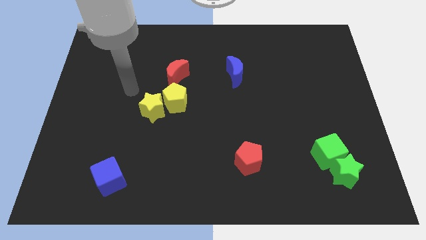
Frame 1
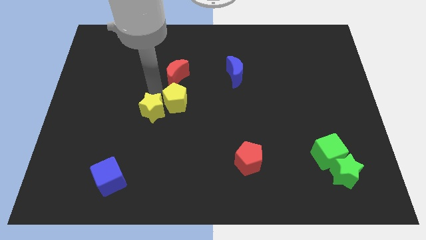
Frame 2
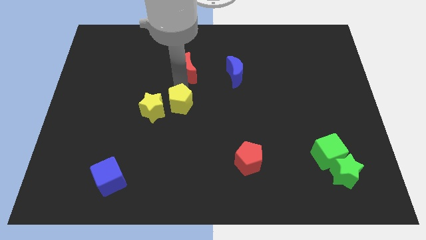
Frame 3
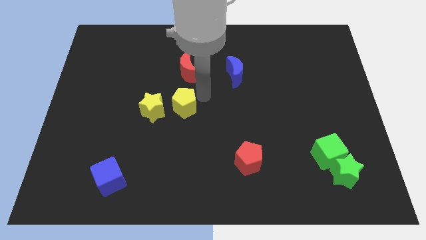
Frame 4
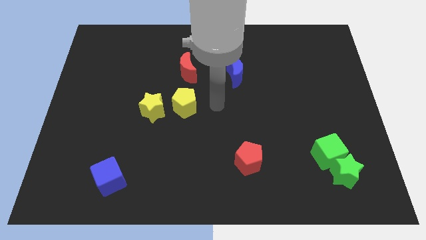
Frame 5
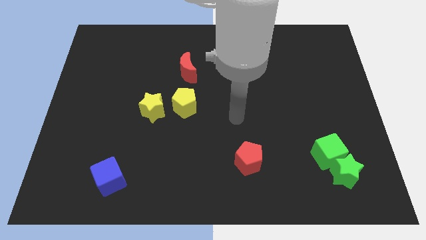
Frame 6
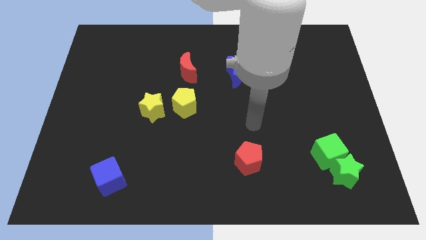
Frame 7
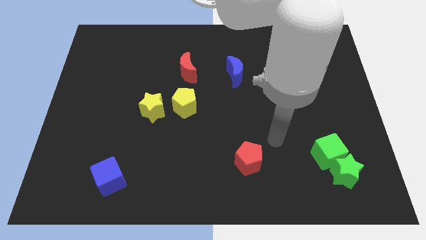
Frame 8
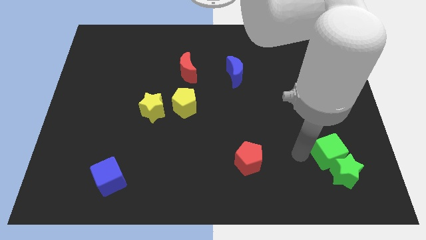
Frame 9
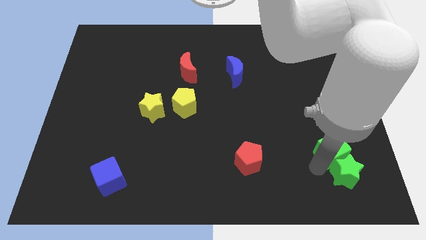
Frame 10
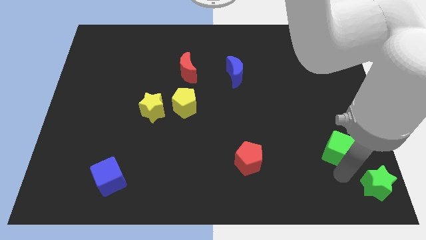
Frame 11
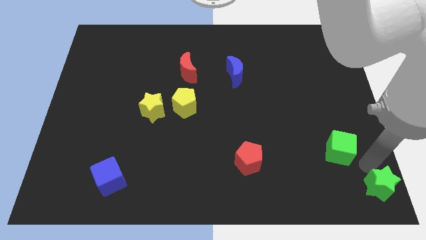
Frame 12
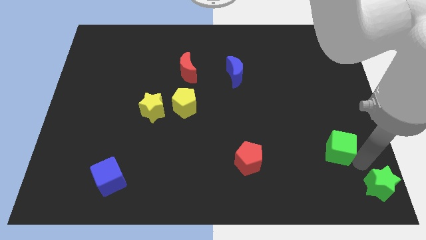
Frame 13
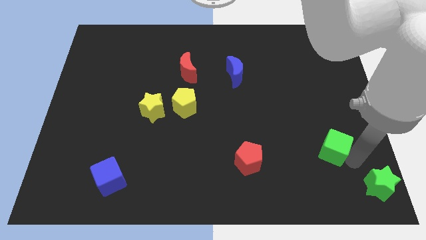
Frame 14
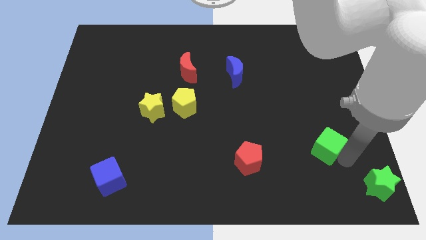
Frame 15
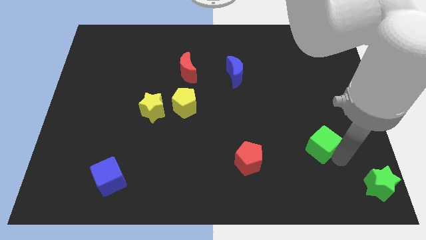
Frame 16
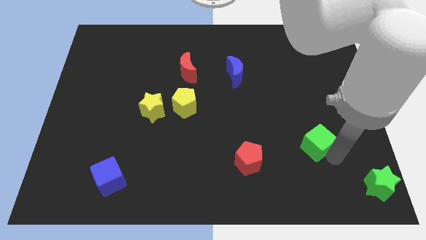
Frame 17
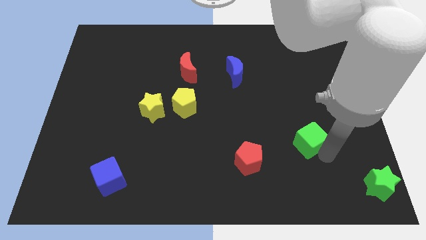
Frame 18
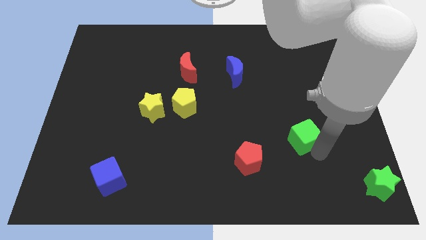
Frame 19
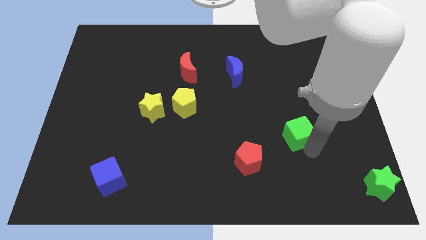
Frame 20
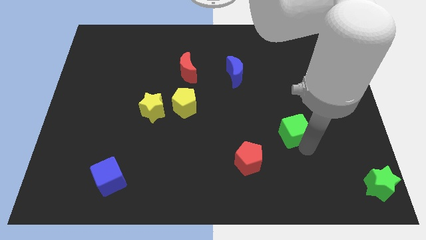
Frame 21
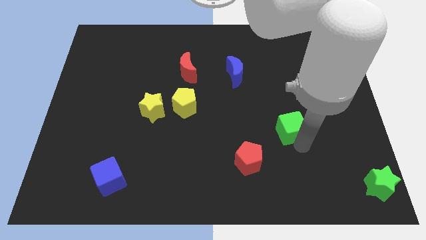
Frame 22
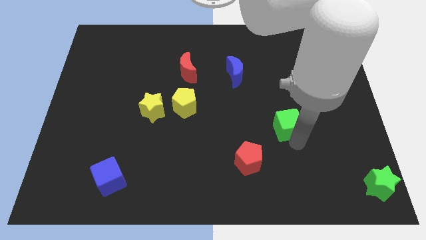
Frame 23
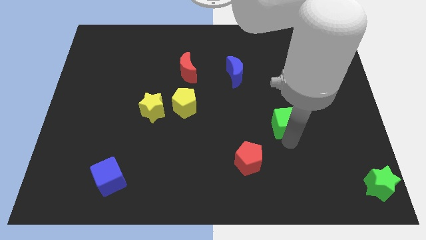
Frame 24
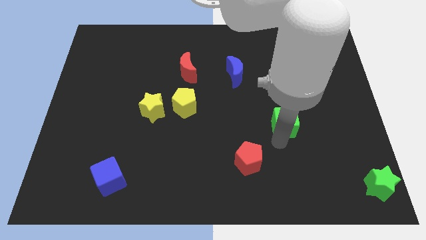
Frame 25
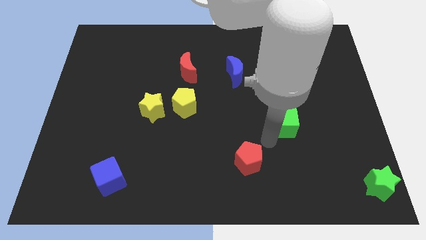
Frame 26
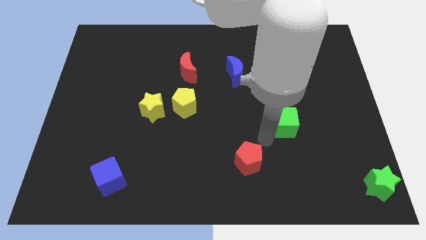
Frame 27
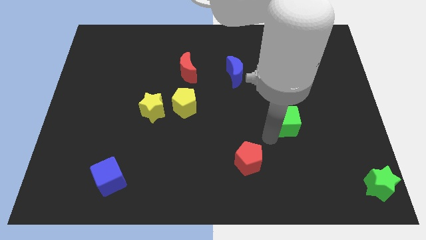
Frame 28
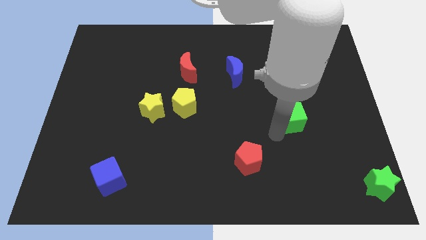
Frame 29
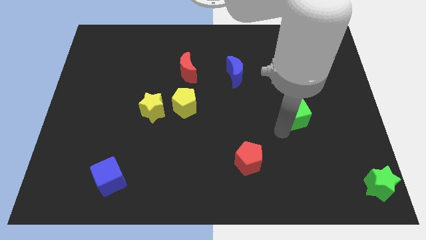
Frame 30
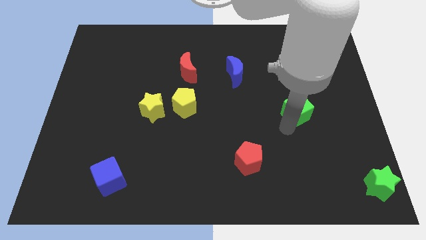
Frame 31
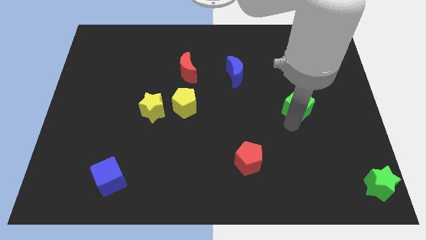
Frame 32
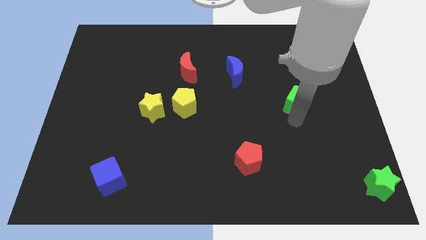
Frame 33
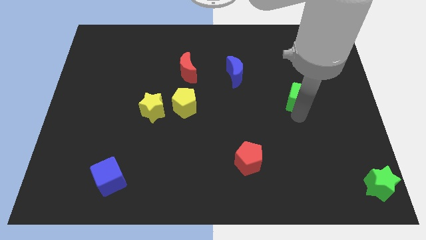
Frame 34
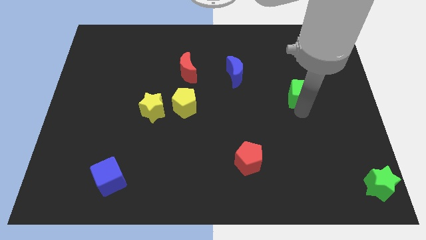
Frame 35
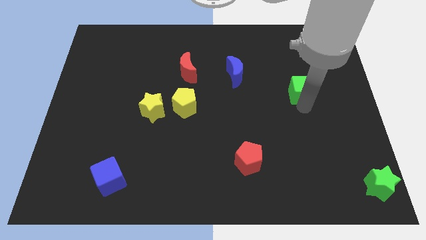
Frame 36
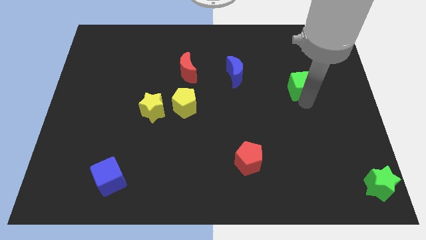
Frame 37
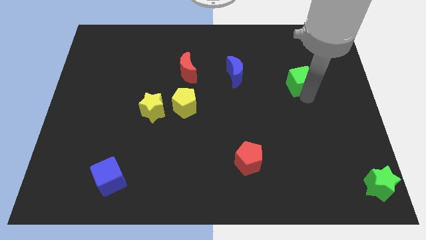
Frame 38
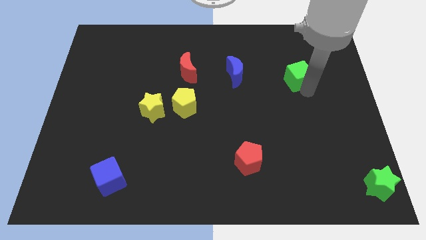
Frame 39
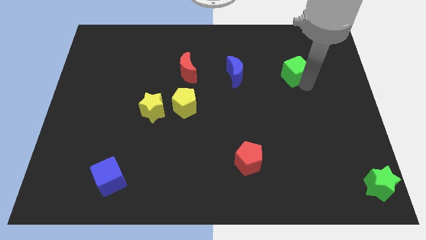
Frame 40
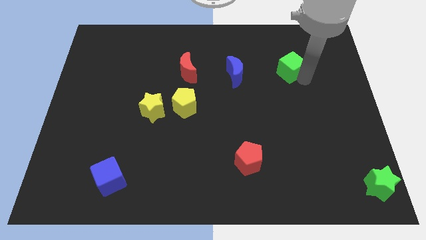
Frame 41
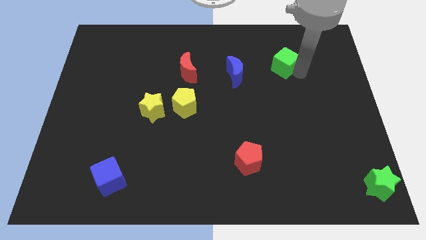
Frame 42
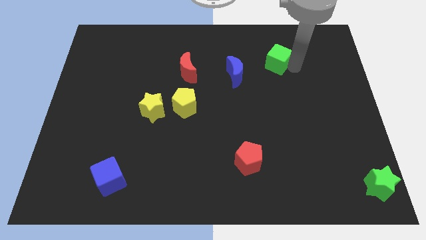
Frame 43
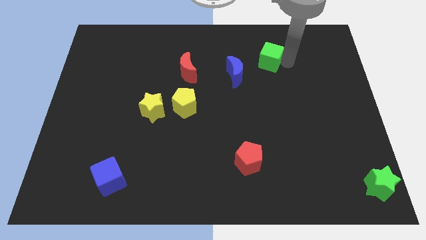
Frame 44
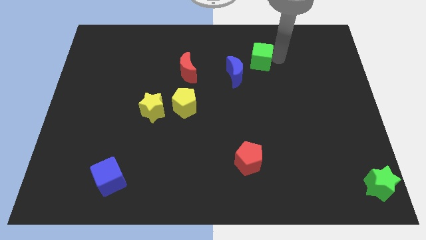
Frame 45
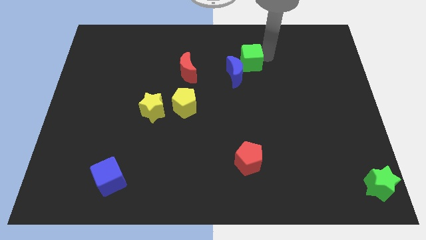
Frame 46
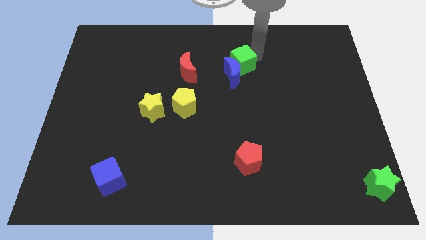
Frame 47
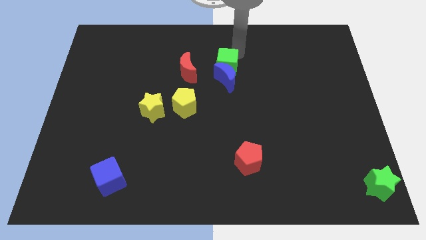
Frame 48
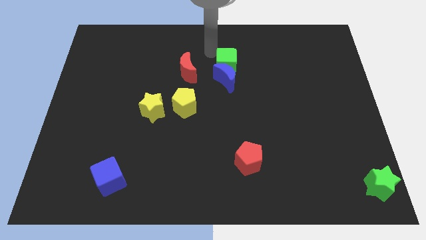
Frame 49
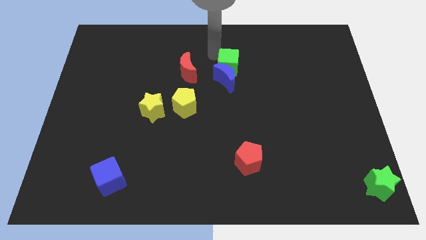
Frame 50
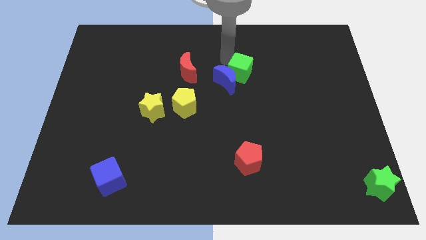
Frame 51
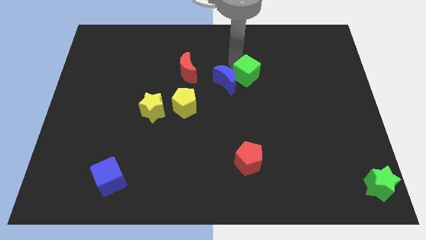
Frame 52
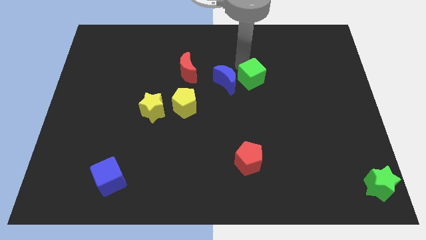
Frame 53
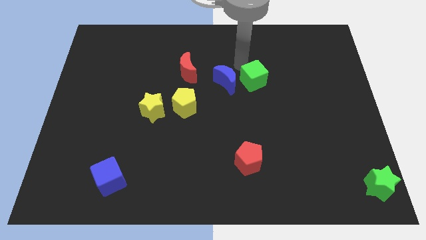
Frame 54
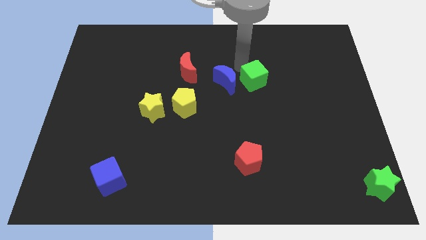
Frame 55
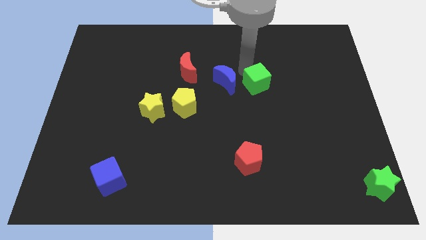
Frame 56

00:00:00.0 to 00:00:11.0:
push the green cube to the bottom right of the blue moon

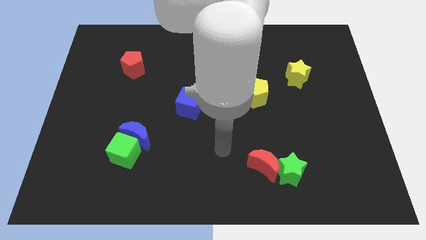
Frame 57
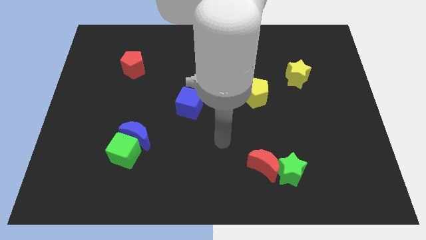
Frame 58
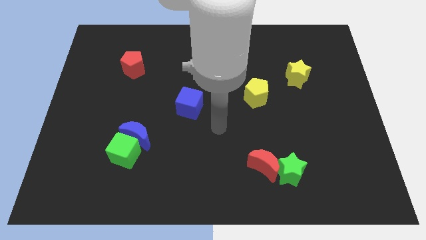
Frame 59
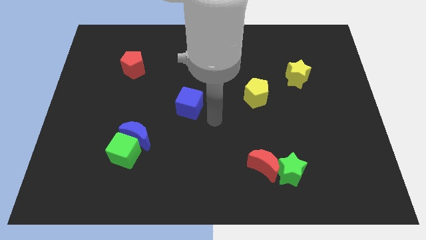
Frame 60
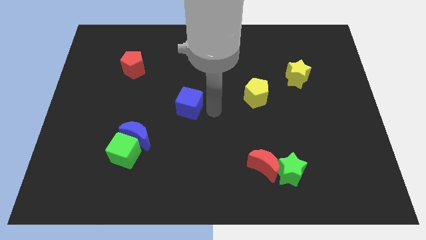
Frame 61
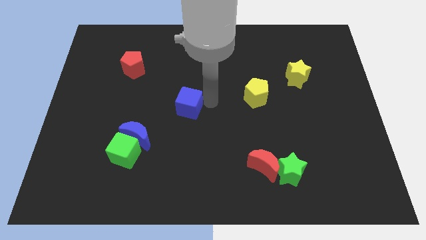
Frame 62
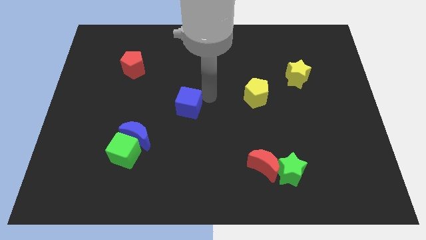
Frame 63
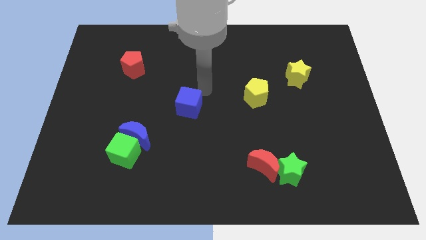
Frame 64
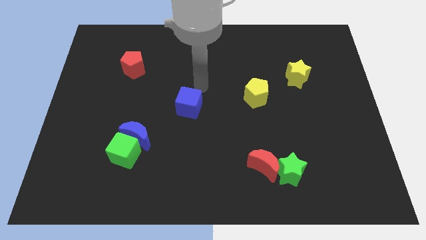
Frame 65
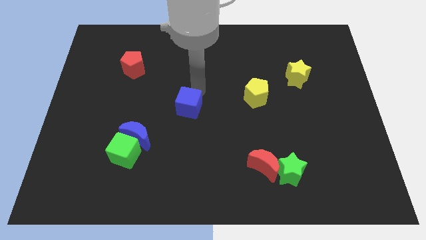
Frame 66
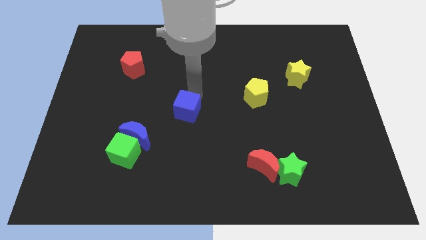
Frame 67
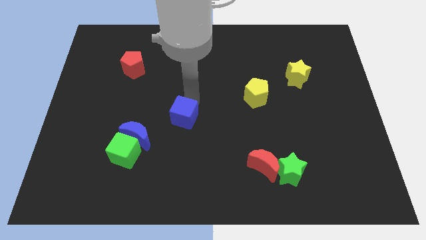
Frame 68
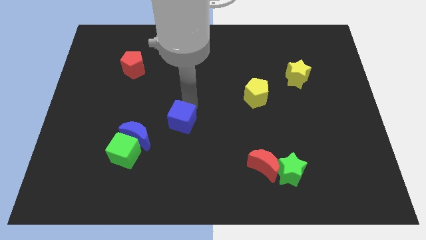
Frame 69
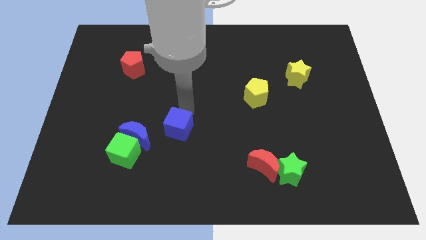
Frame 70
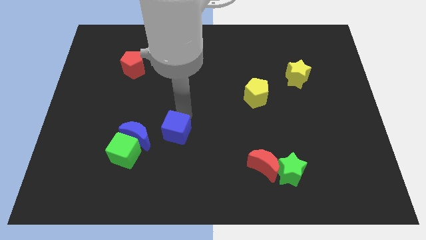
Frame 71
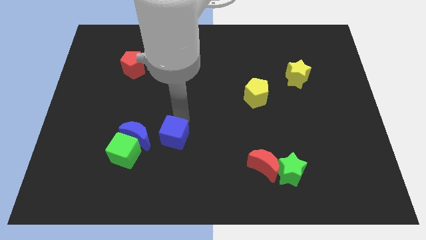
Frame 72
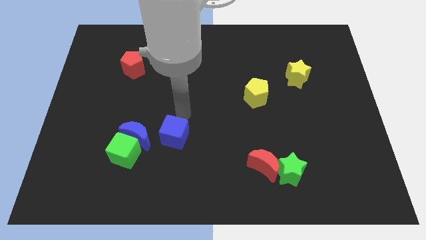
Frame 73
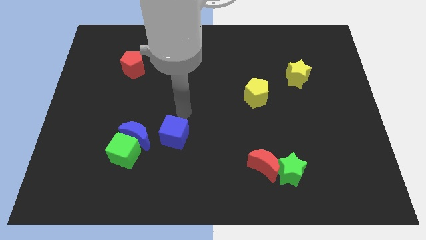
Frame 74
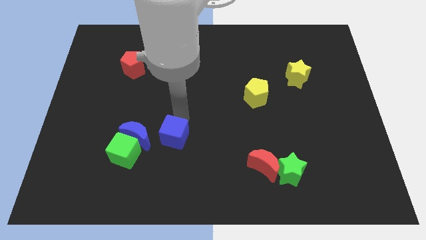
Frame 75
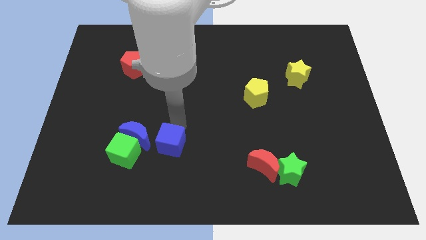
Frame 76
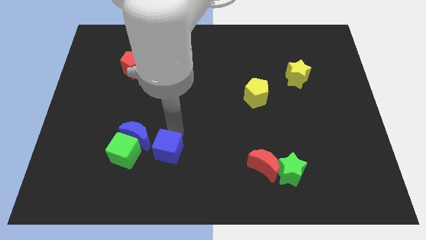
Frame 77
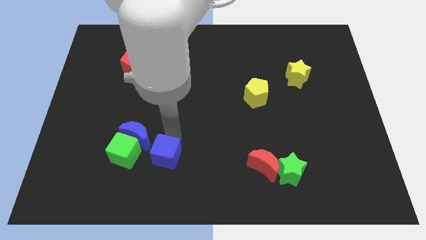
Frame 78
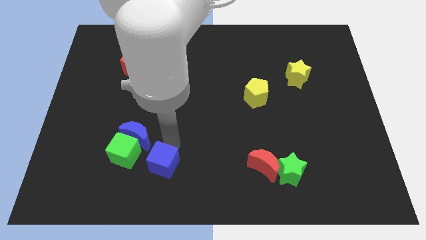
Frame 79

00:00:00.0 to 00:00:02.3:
push the blue cube to the bottom right side of the green cube
